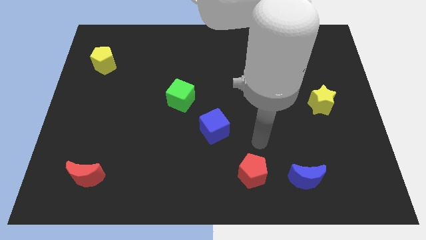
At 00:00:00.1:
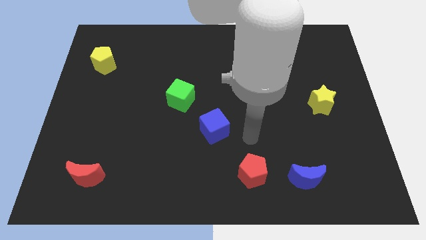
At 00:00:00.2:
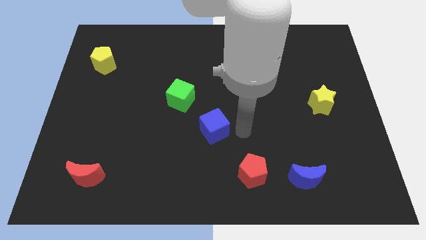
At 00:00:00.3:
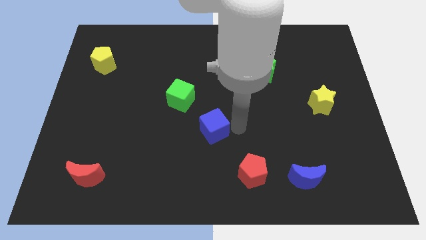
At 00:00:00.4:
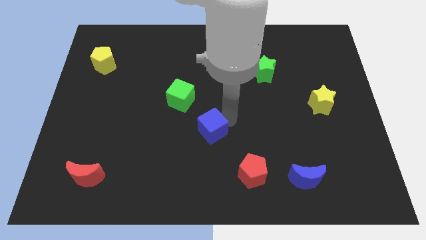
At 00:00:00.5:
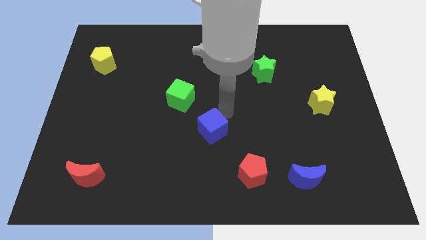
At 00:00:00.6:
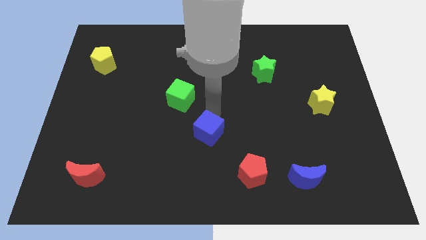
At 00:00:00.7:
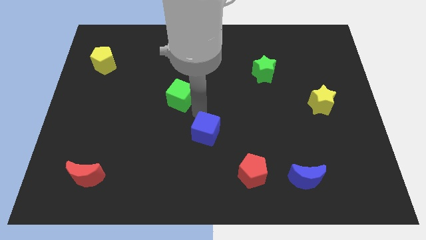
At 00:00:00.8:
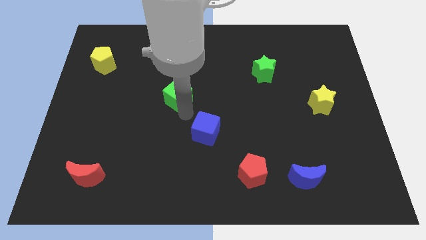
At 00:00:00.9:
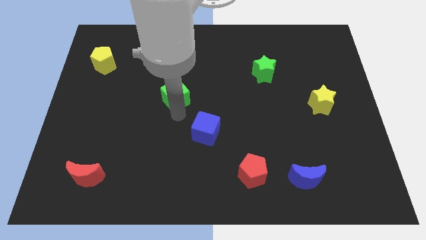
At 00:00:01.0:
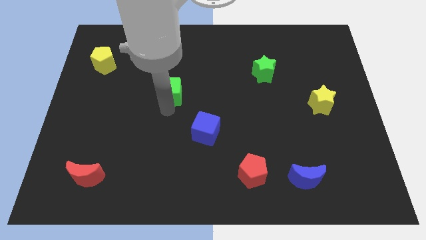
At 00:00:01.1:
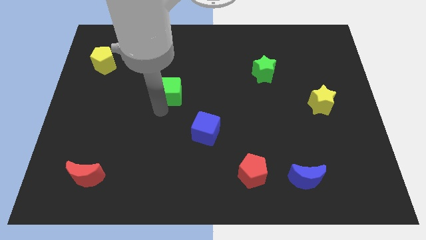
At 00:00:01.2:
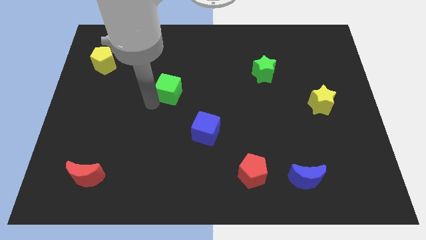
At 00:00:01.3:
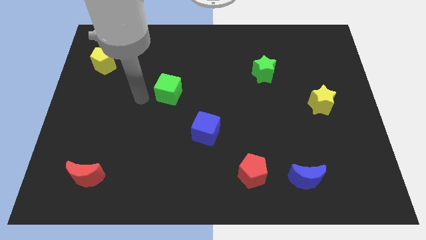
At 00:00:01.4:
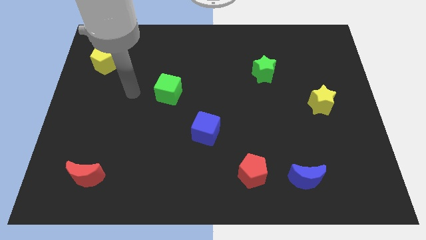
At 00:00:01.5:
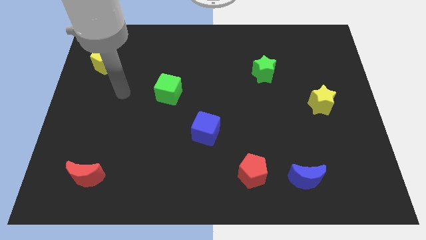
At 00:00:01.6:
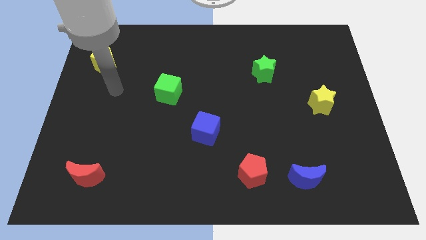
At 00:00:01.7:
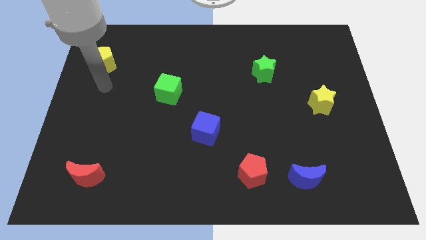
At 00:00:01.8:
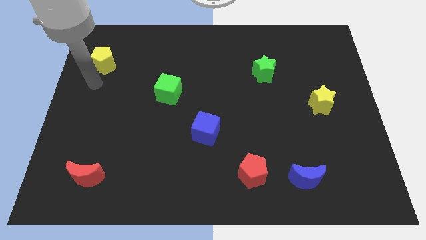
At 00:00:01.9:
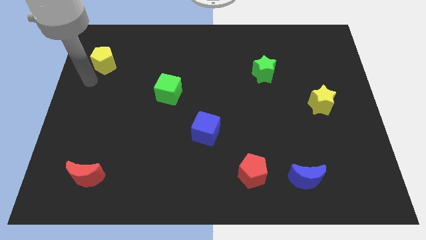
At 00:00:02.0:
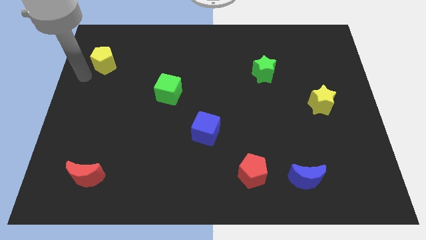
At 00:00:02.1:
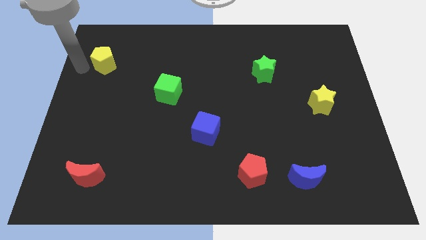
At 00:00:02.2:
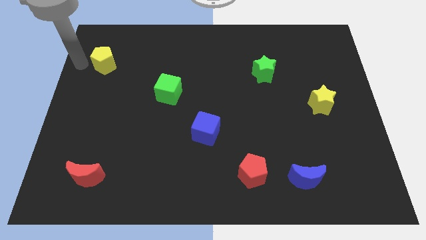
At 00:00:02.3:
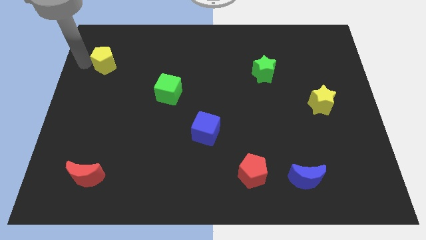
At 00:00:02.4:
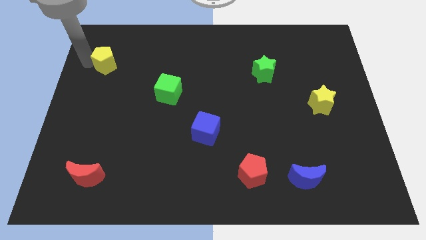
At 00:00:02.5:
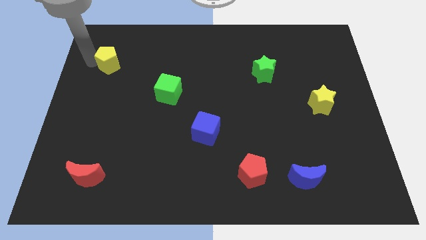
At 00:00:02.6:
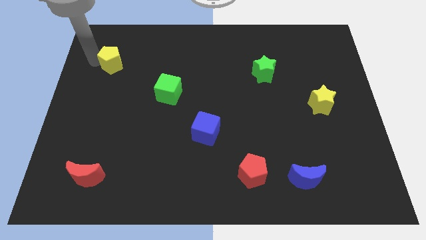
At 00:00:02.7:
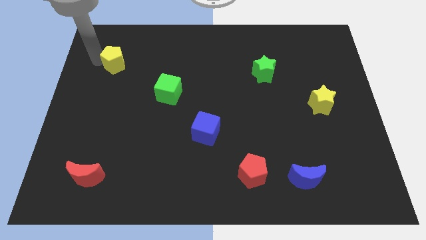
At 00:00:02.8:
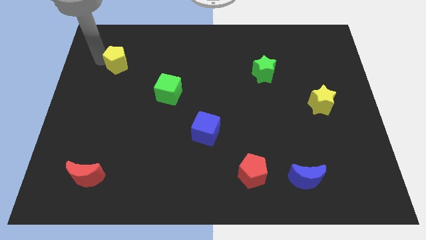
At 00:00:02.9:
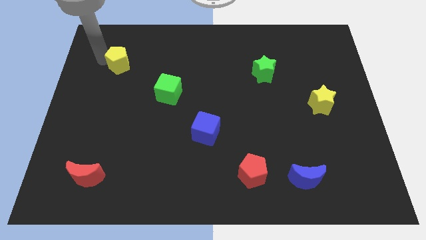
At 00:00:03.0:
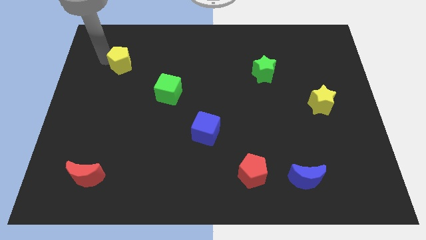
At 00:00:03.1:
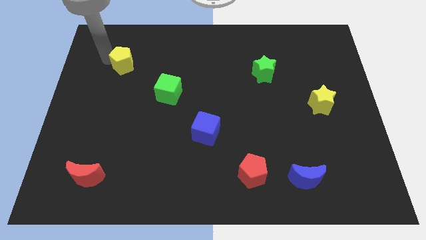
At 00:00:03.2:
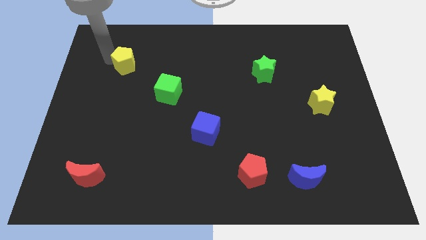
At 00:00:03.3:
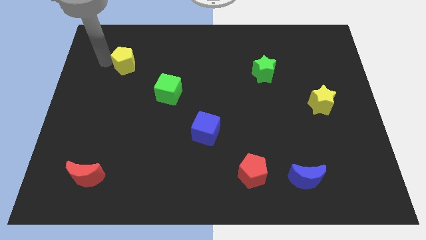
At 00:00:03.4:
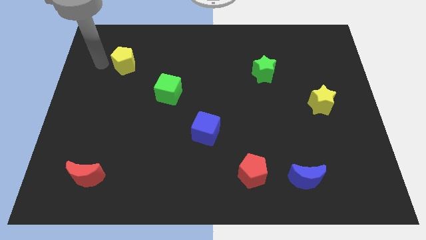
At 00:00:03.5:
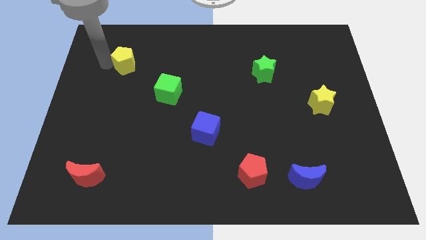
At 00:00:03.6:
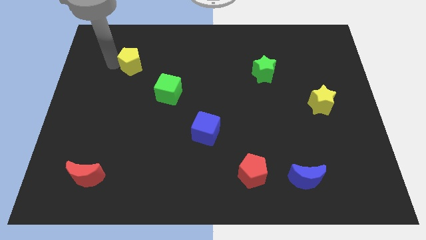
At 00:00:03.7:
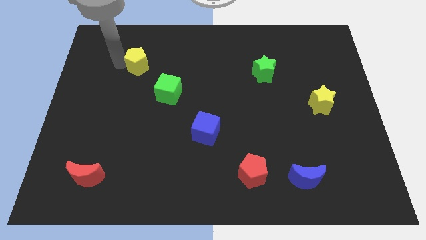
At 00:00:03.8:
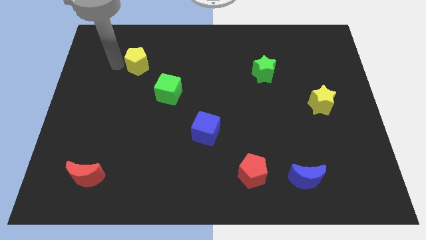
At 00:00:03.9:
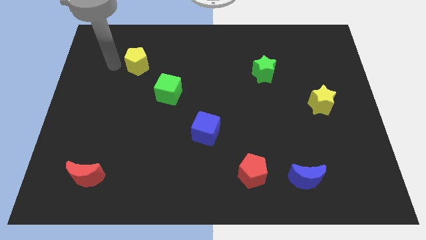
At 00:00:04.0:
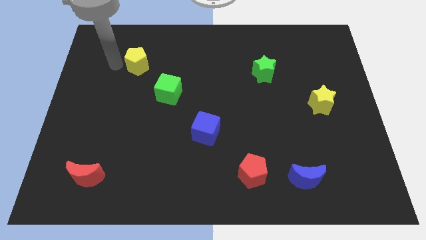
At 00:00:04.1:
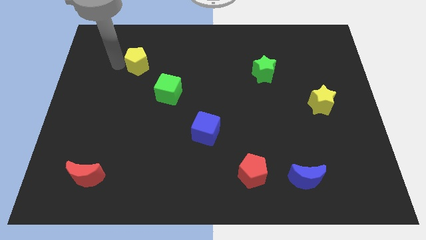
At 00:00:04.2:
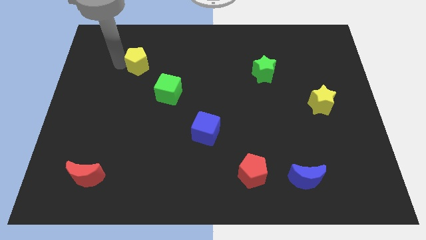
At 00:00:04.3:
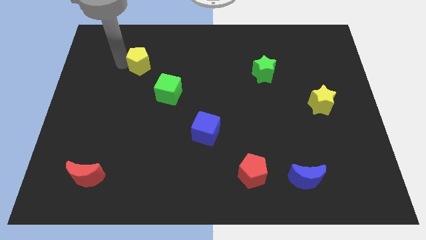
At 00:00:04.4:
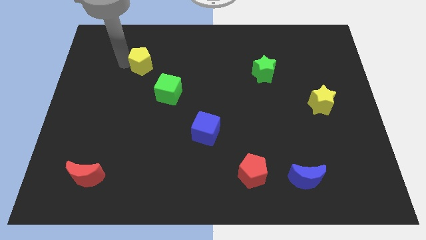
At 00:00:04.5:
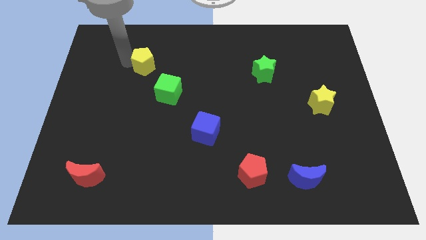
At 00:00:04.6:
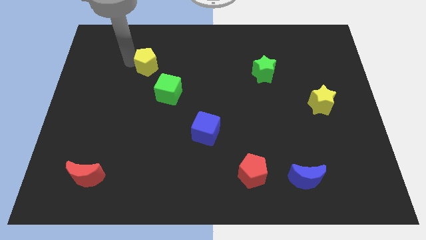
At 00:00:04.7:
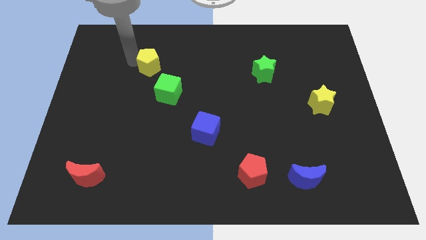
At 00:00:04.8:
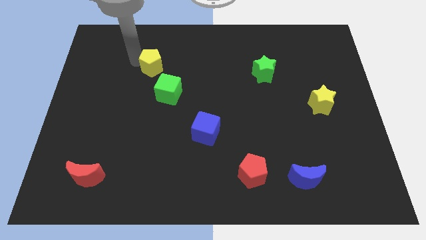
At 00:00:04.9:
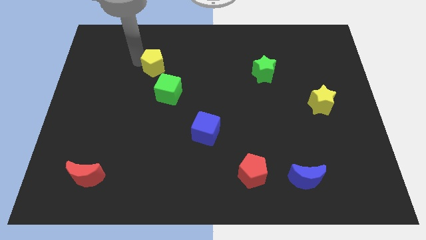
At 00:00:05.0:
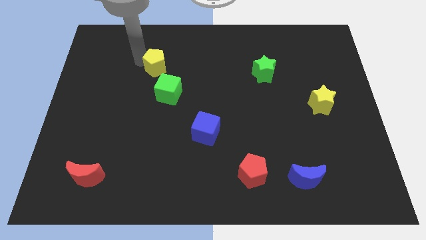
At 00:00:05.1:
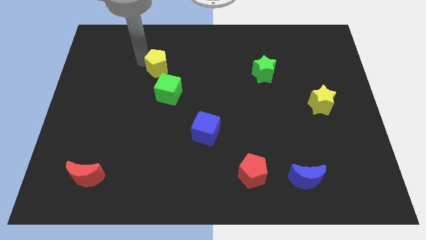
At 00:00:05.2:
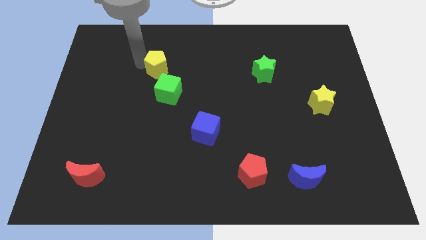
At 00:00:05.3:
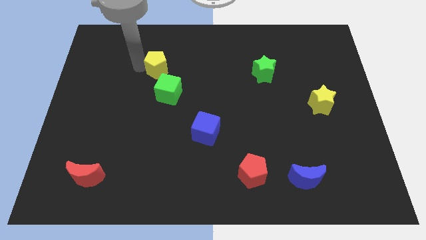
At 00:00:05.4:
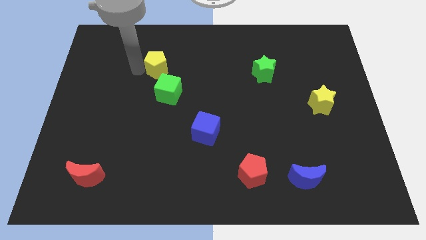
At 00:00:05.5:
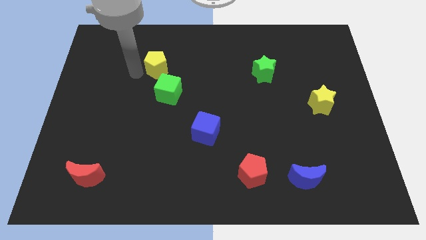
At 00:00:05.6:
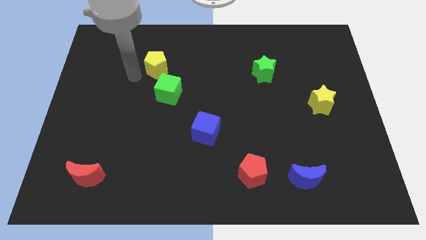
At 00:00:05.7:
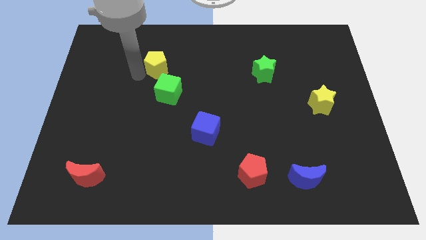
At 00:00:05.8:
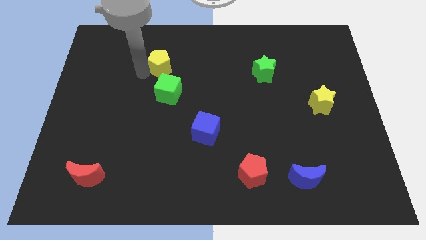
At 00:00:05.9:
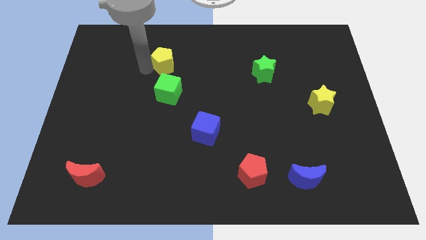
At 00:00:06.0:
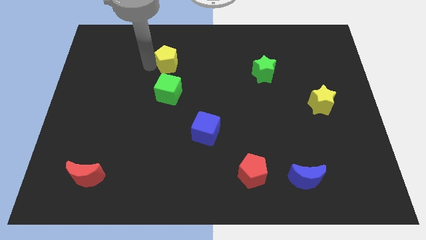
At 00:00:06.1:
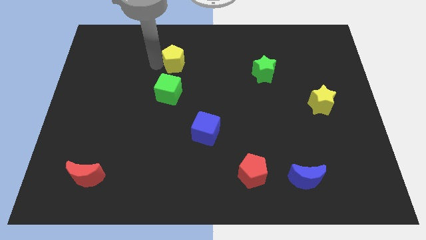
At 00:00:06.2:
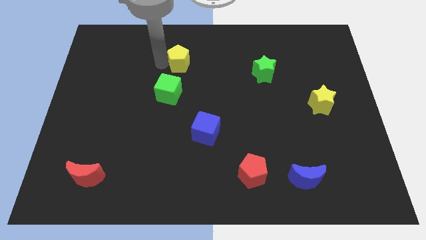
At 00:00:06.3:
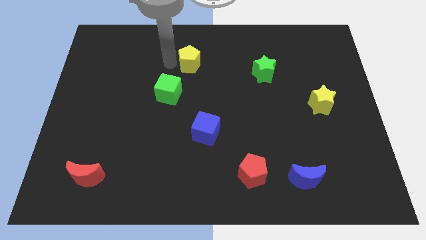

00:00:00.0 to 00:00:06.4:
push the yellow pentagon right

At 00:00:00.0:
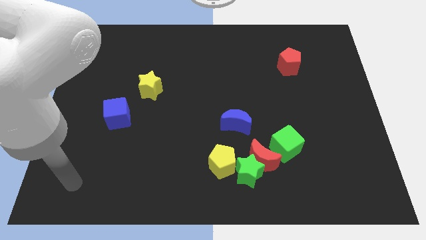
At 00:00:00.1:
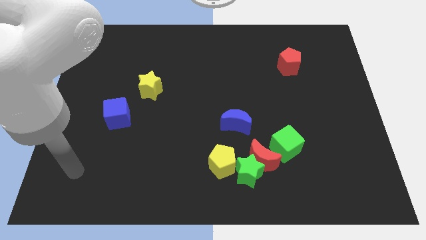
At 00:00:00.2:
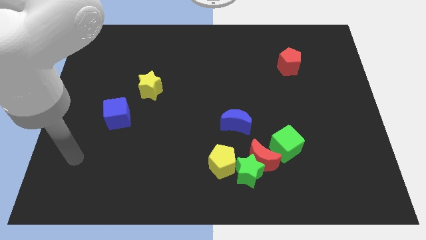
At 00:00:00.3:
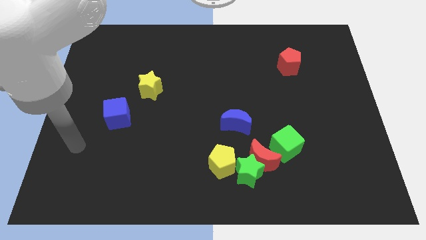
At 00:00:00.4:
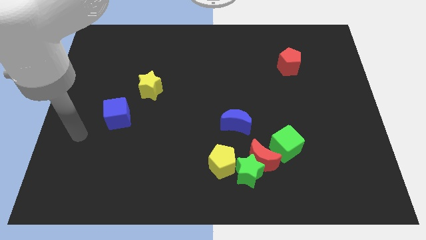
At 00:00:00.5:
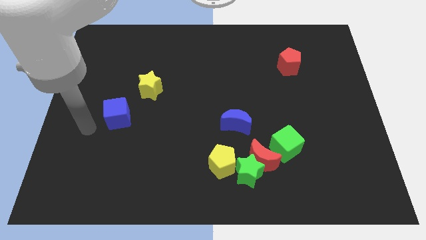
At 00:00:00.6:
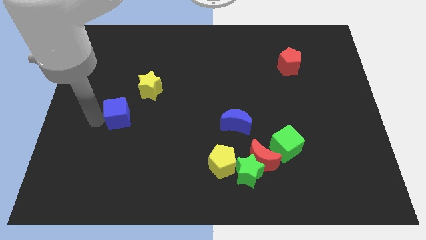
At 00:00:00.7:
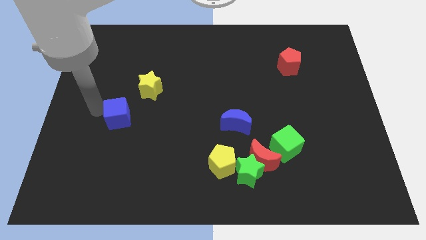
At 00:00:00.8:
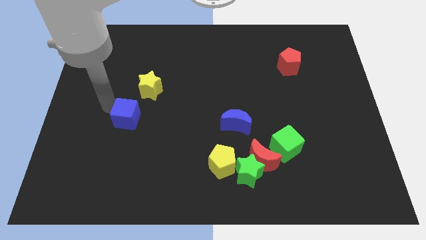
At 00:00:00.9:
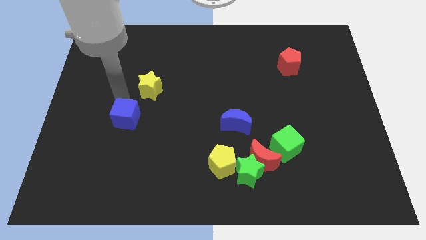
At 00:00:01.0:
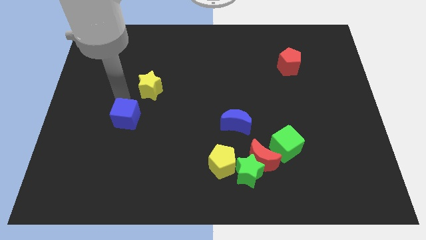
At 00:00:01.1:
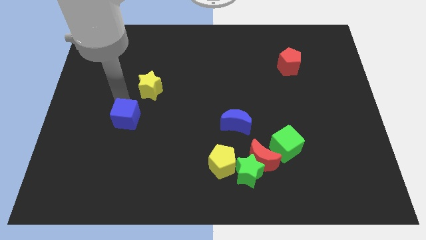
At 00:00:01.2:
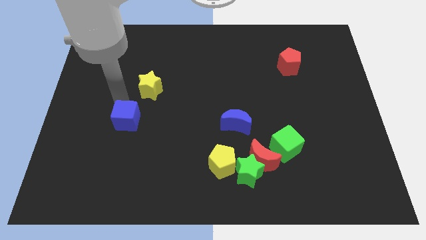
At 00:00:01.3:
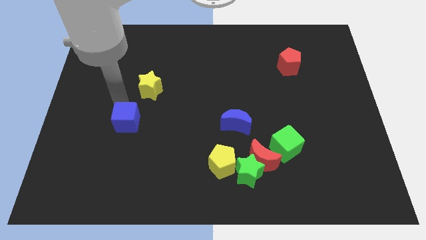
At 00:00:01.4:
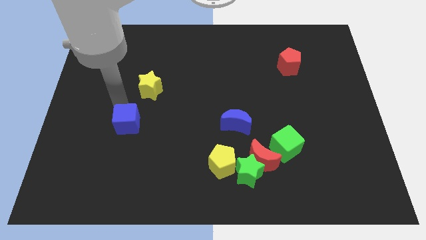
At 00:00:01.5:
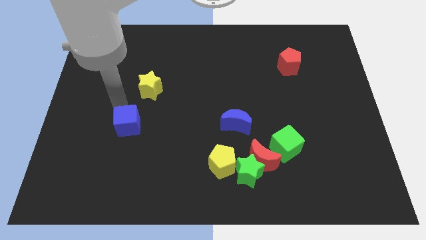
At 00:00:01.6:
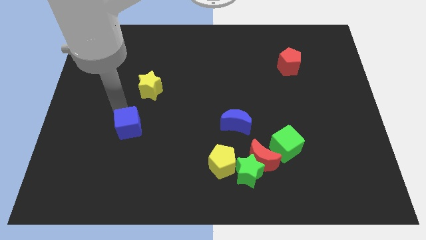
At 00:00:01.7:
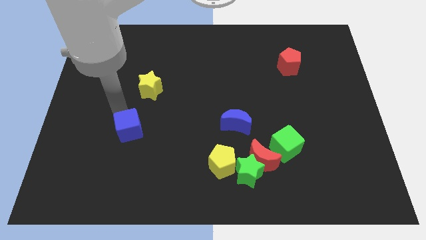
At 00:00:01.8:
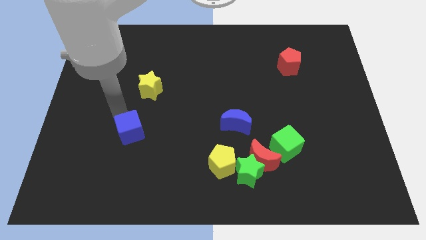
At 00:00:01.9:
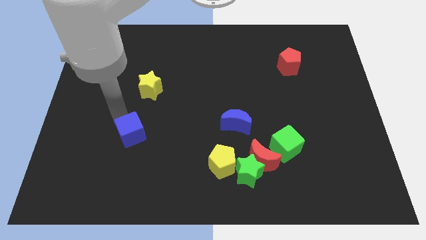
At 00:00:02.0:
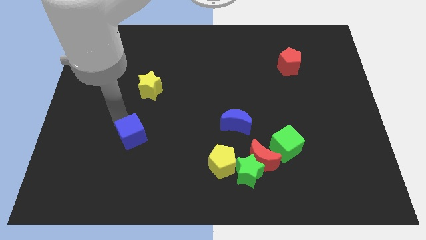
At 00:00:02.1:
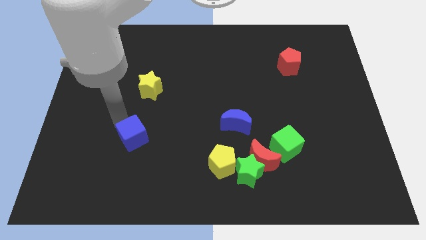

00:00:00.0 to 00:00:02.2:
slightly move the blue cube downwards and right
